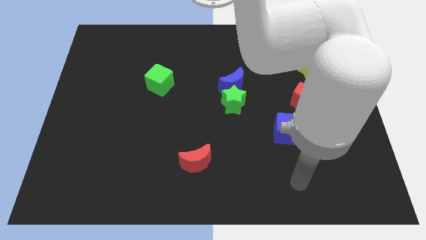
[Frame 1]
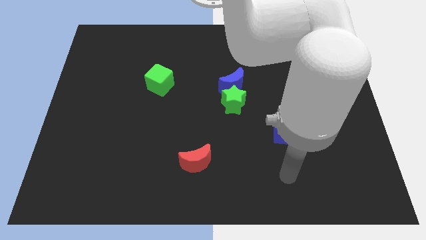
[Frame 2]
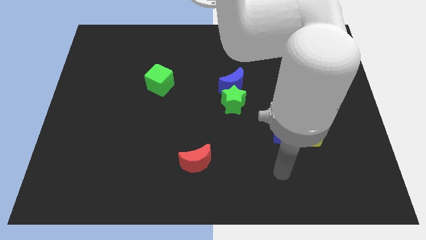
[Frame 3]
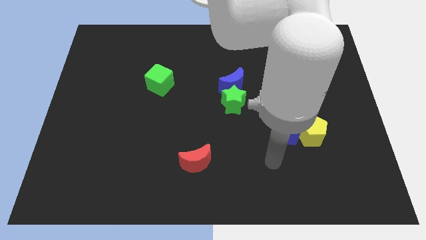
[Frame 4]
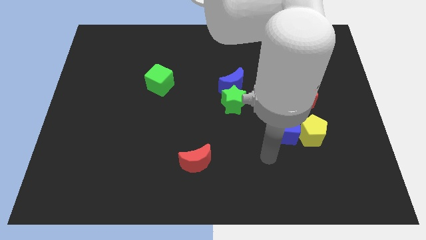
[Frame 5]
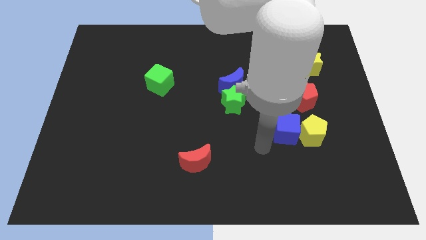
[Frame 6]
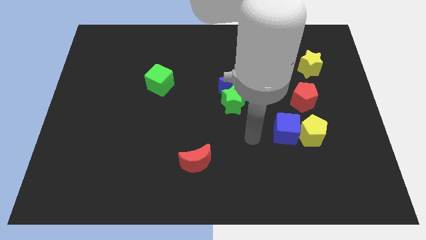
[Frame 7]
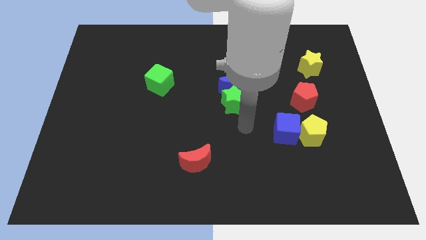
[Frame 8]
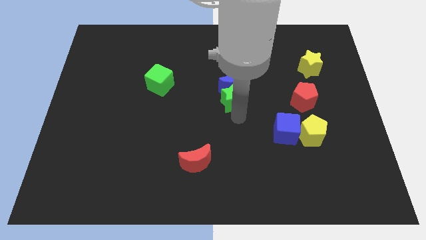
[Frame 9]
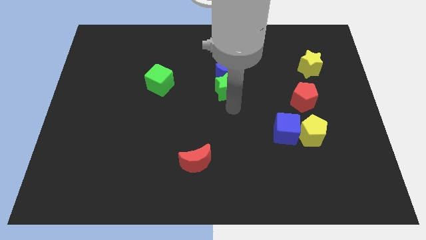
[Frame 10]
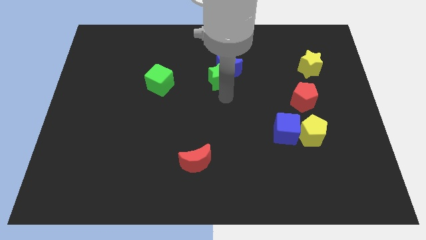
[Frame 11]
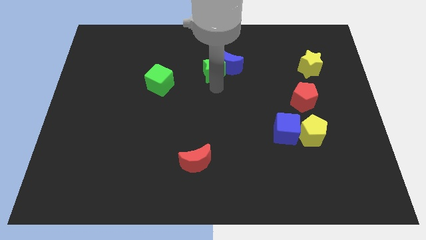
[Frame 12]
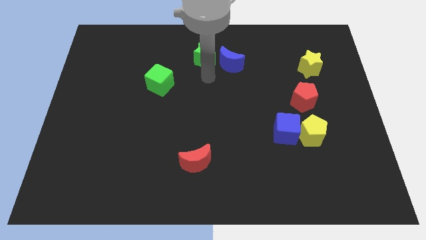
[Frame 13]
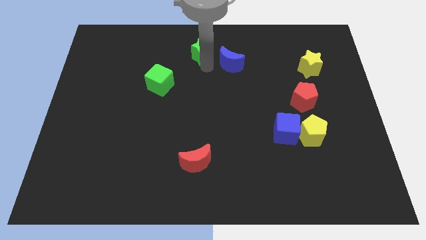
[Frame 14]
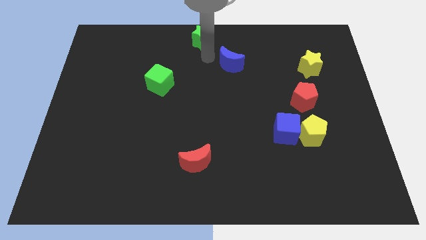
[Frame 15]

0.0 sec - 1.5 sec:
separate the blue moon from the green star

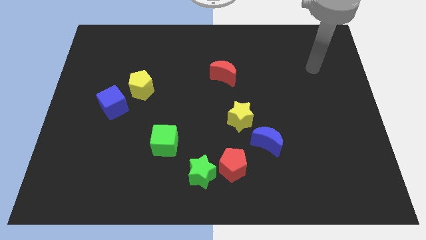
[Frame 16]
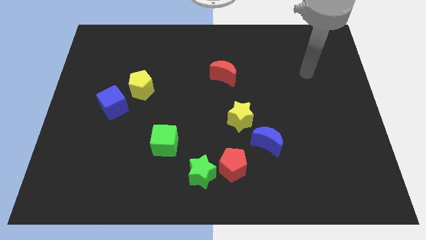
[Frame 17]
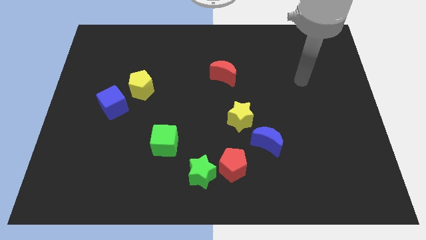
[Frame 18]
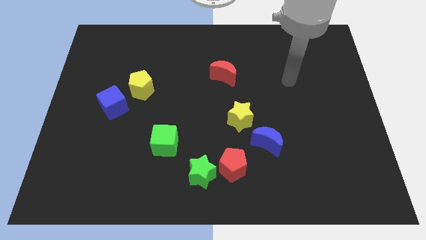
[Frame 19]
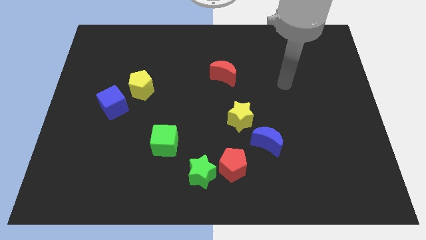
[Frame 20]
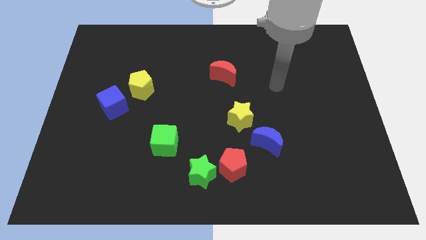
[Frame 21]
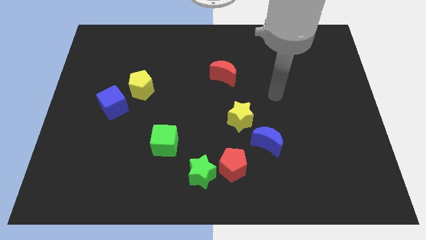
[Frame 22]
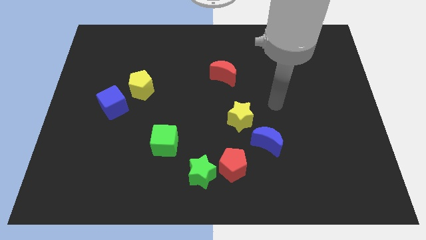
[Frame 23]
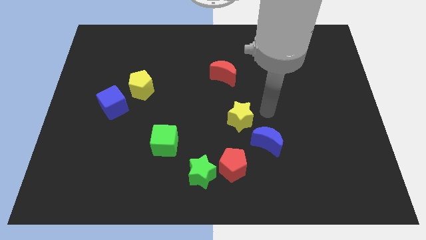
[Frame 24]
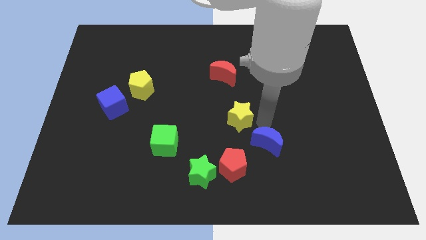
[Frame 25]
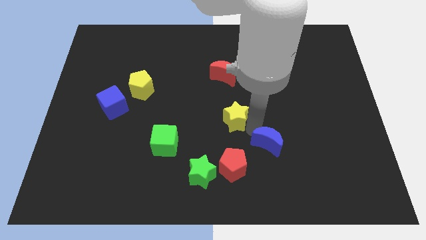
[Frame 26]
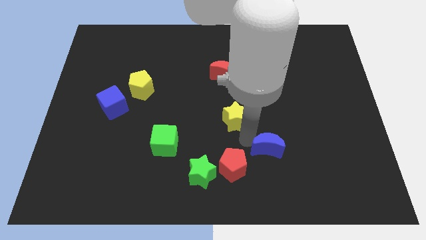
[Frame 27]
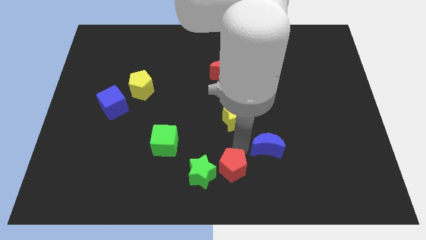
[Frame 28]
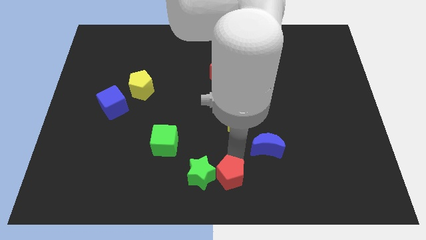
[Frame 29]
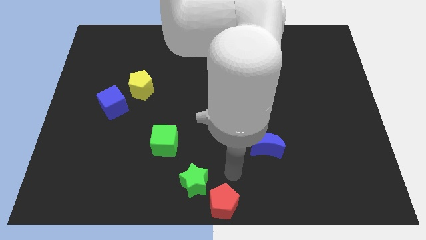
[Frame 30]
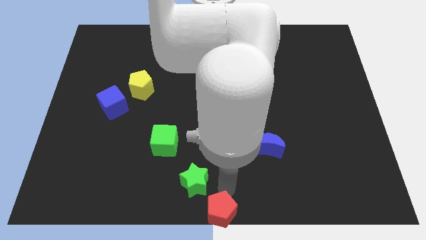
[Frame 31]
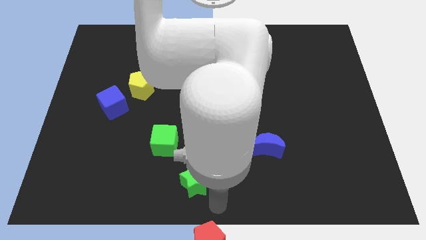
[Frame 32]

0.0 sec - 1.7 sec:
move the green star away from the red pentagon

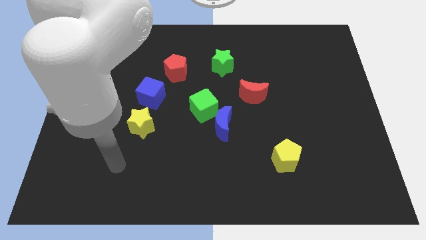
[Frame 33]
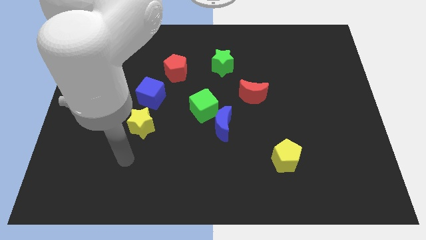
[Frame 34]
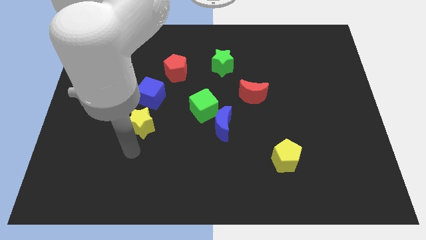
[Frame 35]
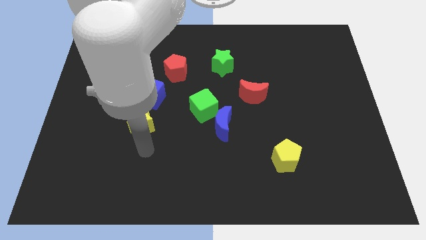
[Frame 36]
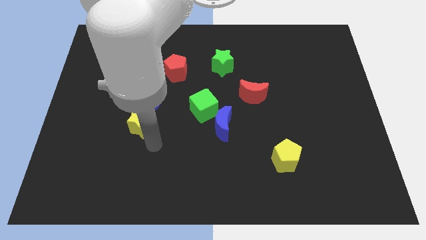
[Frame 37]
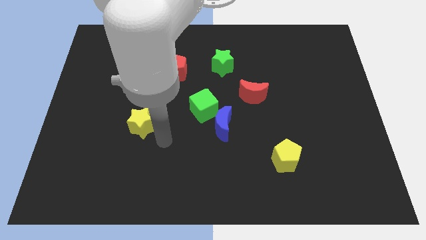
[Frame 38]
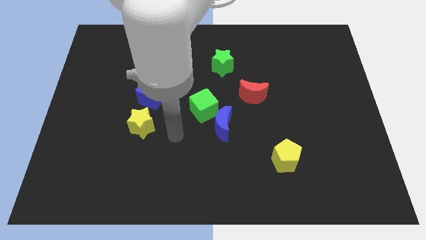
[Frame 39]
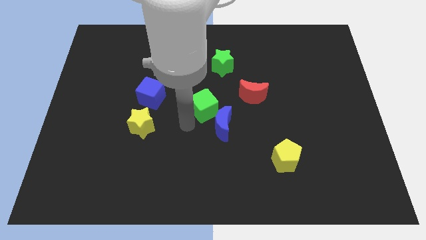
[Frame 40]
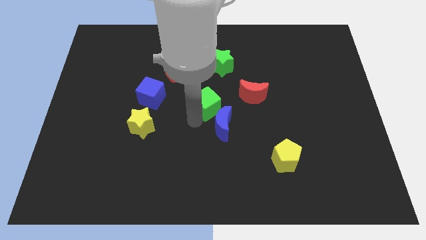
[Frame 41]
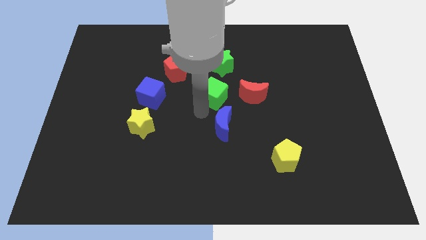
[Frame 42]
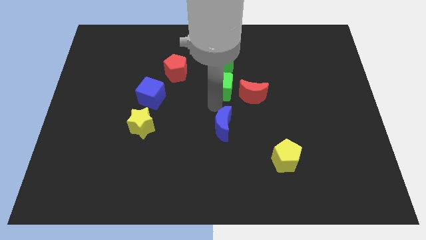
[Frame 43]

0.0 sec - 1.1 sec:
separate the blue moon from the green cube

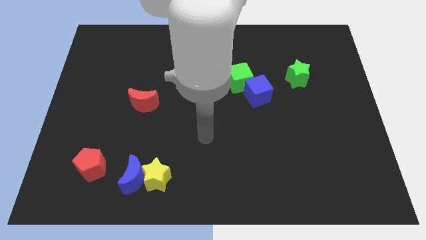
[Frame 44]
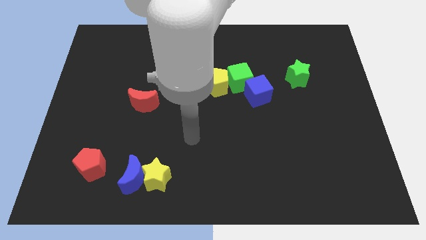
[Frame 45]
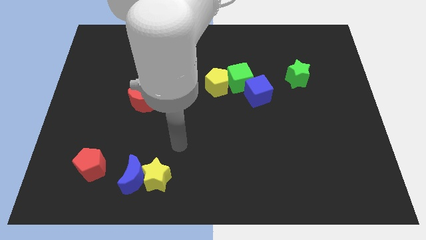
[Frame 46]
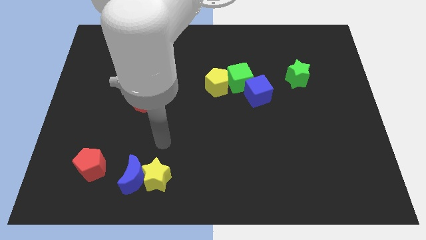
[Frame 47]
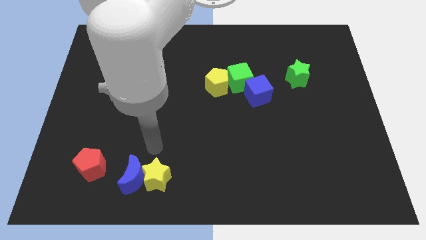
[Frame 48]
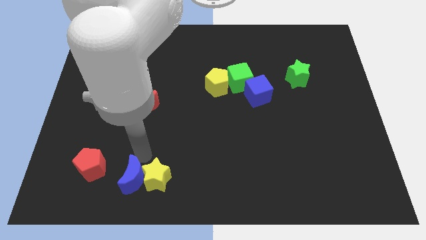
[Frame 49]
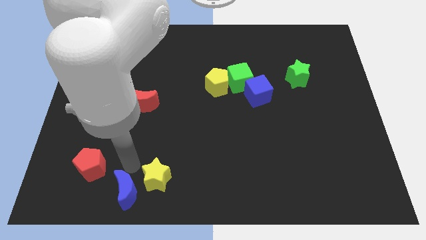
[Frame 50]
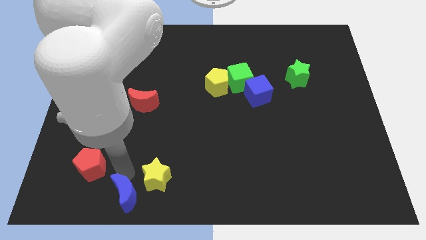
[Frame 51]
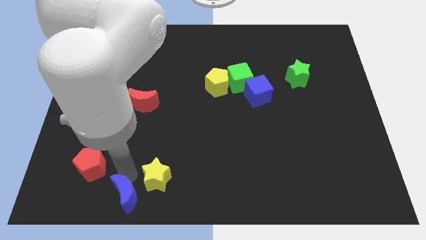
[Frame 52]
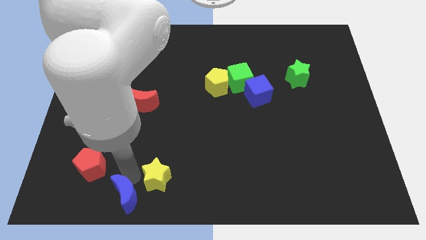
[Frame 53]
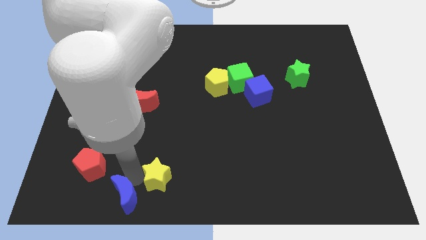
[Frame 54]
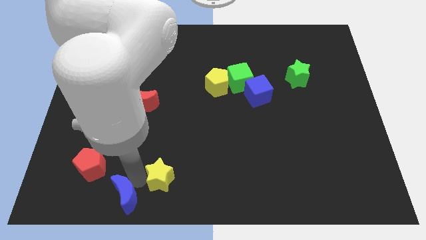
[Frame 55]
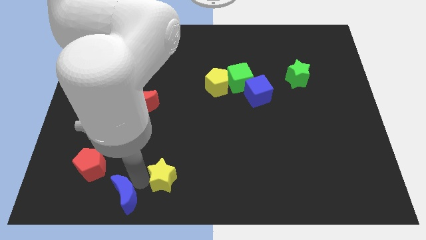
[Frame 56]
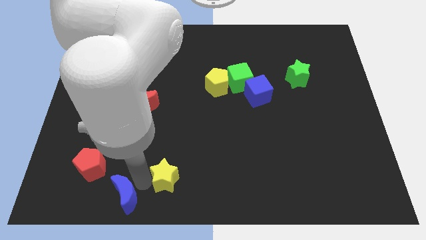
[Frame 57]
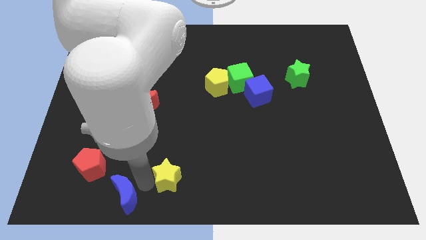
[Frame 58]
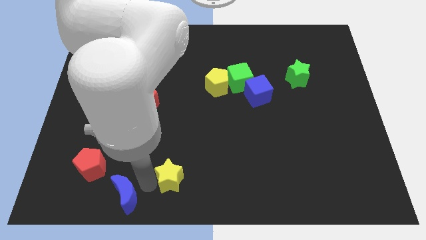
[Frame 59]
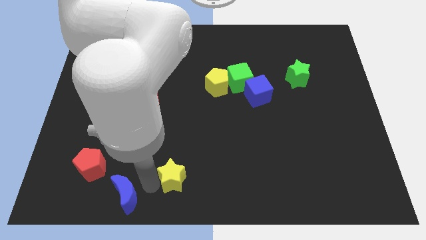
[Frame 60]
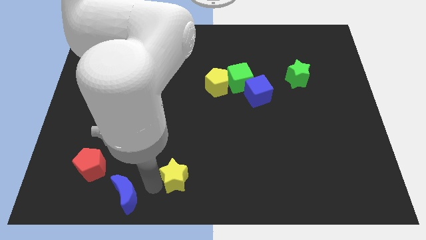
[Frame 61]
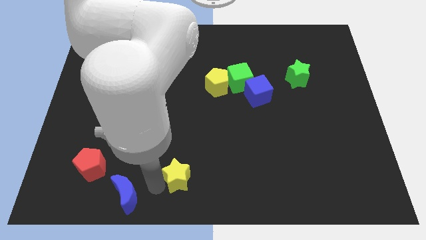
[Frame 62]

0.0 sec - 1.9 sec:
separate the yellow star from the blue moon

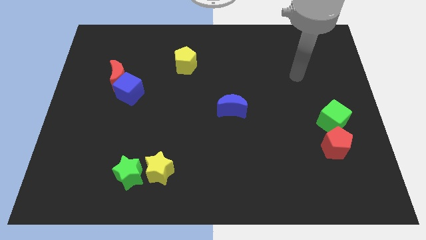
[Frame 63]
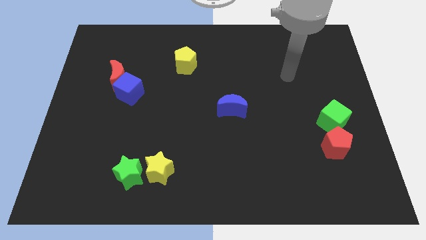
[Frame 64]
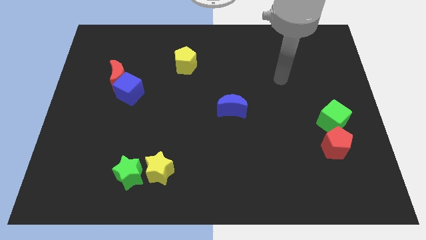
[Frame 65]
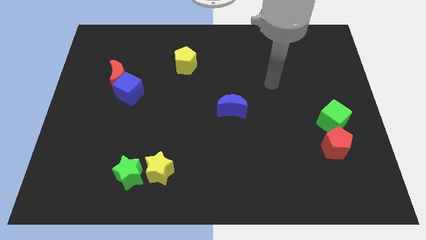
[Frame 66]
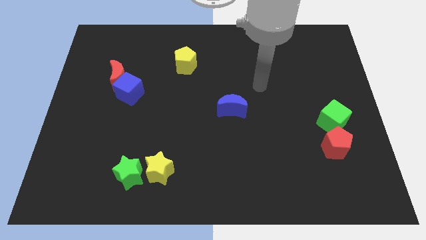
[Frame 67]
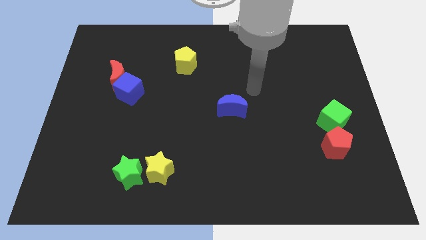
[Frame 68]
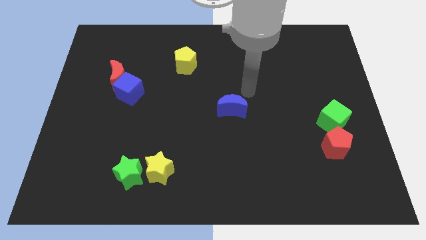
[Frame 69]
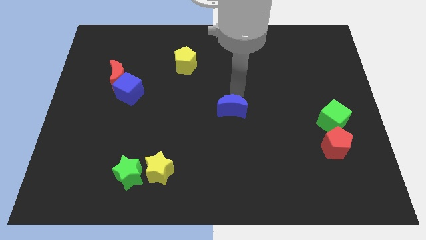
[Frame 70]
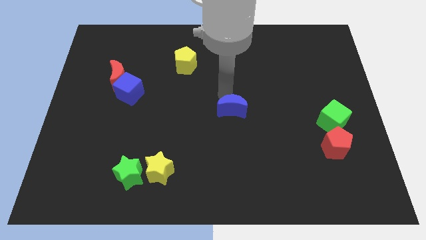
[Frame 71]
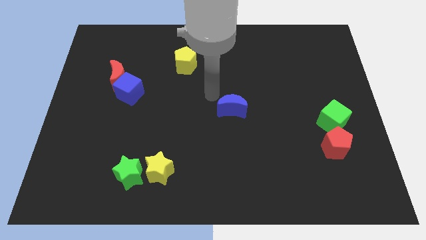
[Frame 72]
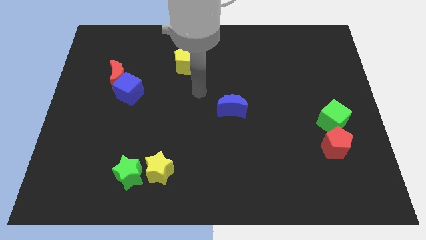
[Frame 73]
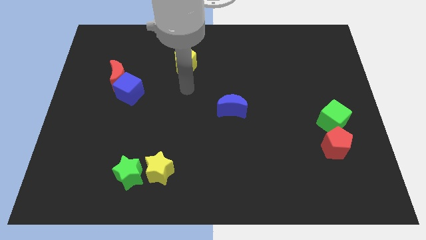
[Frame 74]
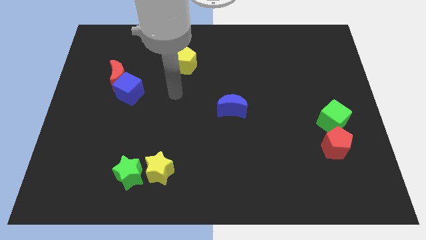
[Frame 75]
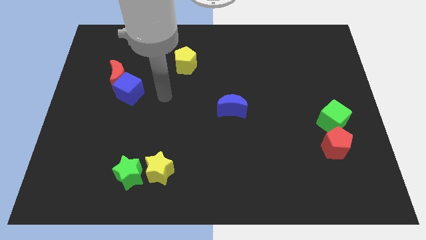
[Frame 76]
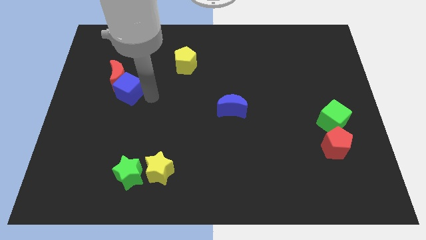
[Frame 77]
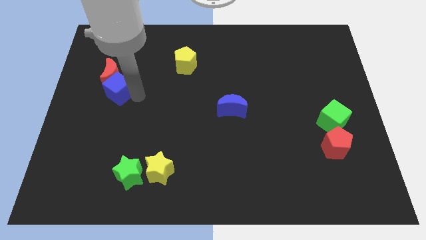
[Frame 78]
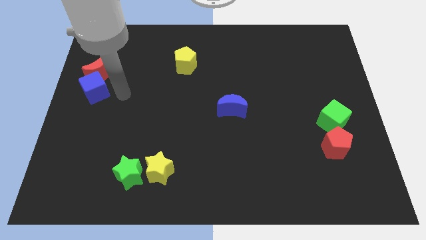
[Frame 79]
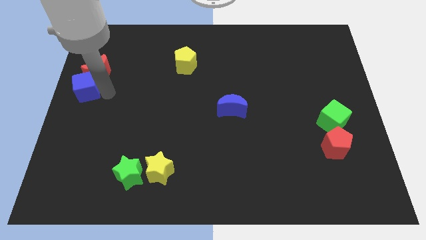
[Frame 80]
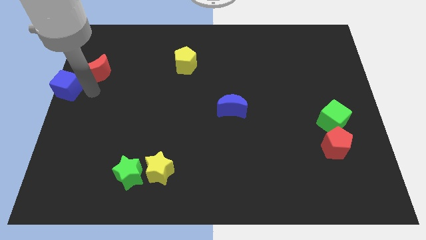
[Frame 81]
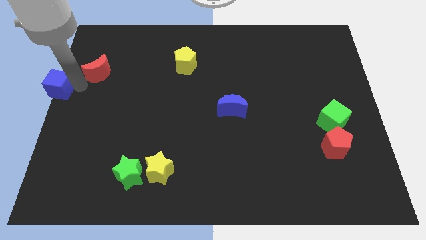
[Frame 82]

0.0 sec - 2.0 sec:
separate the red moon from the blue cube

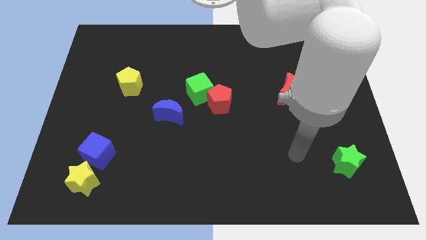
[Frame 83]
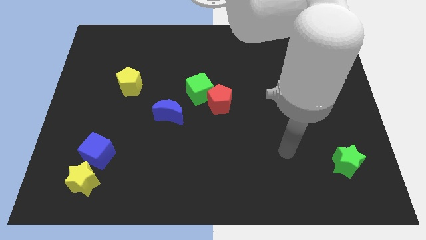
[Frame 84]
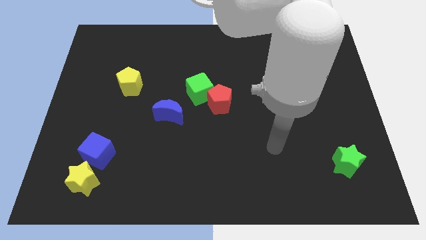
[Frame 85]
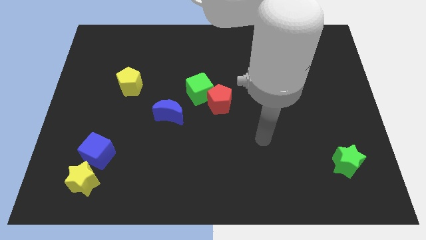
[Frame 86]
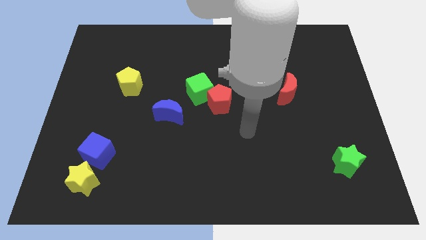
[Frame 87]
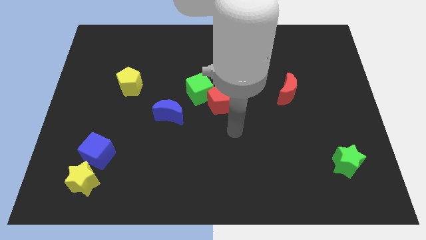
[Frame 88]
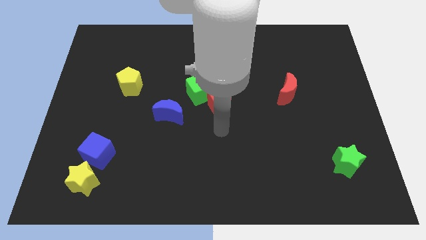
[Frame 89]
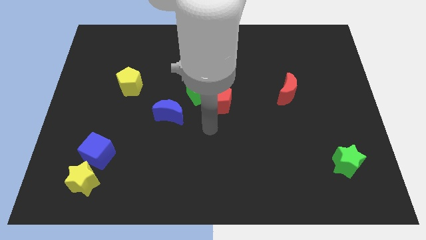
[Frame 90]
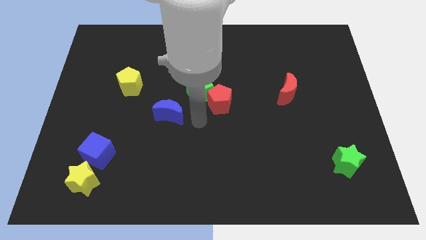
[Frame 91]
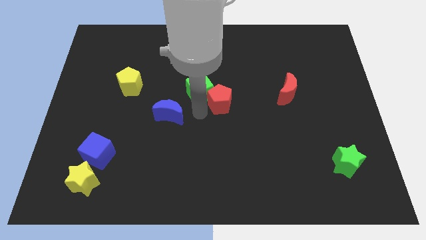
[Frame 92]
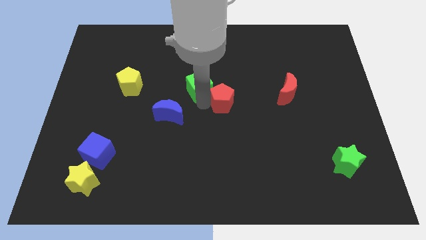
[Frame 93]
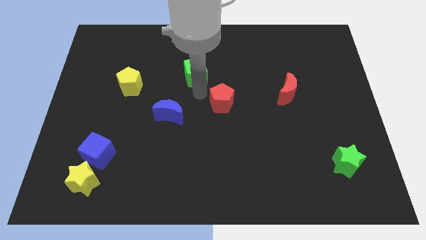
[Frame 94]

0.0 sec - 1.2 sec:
pull the red pentagon apart from the green cube

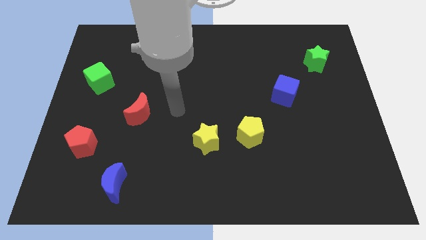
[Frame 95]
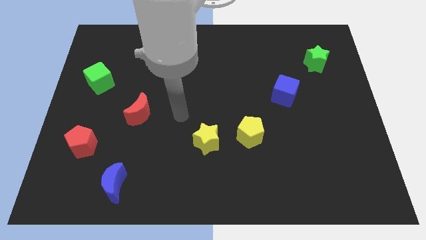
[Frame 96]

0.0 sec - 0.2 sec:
move the yellow star away from the yellow pentagon
